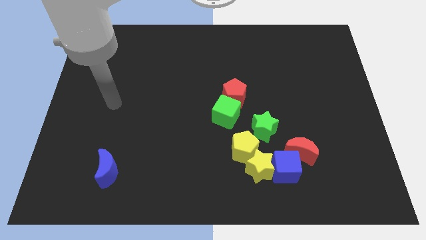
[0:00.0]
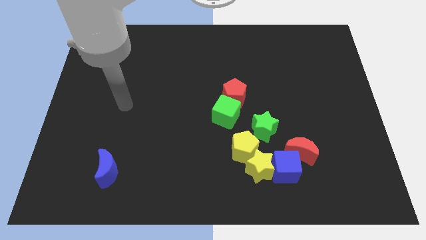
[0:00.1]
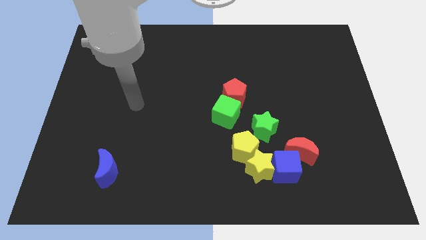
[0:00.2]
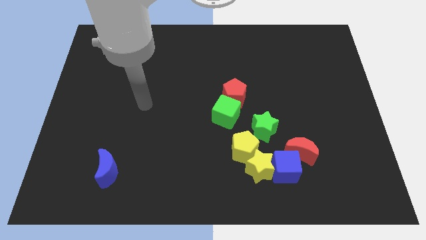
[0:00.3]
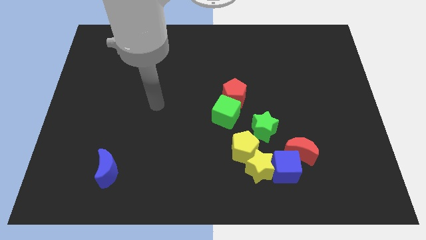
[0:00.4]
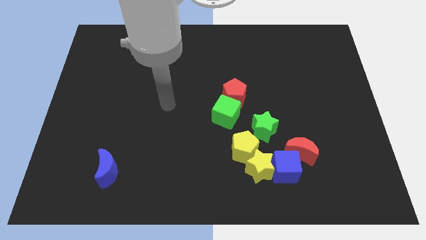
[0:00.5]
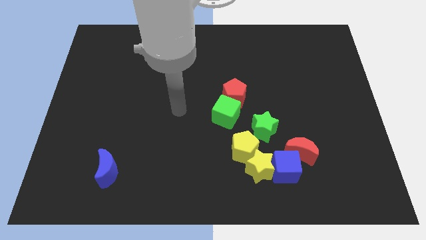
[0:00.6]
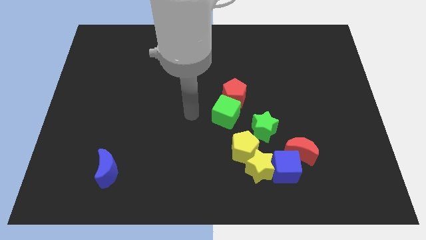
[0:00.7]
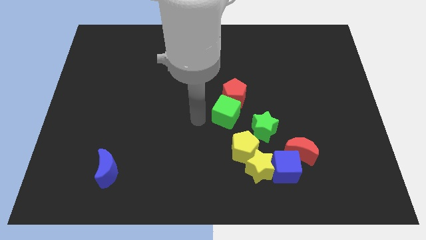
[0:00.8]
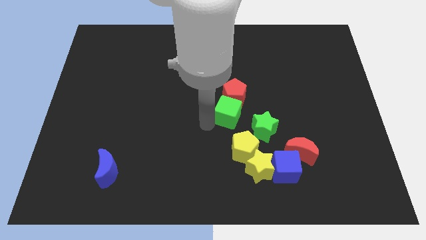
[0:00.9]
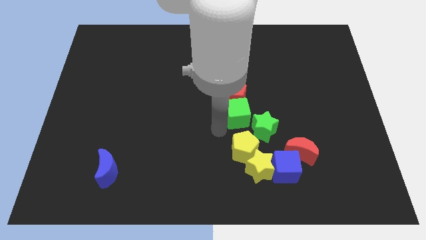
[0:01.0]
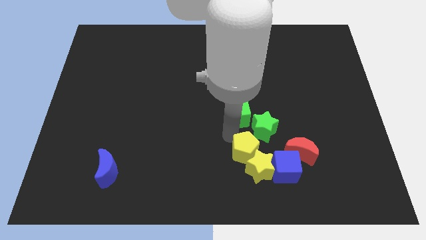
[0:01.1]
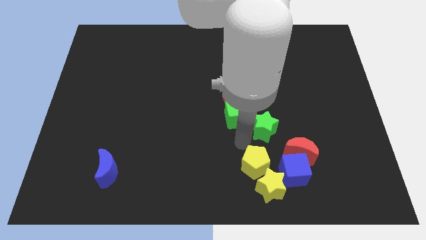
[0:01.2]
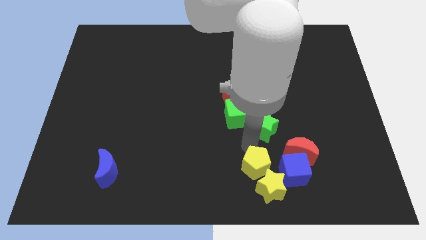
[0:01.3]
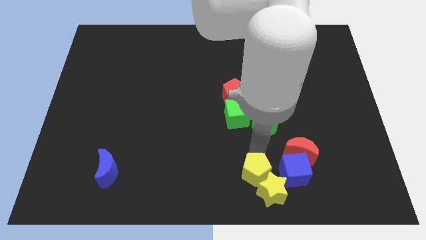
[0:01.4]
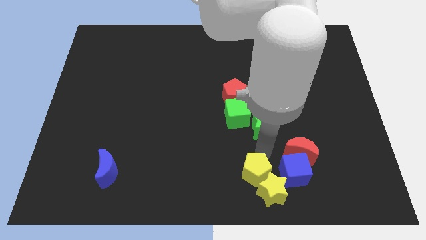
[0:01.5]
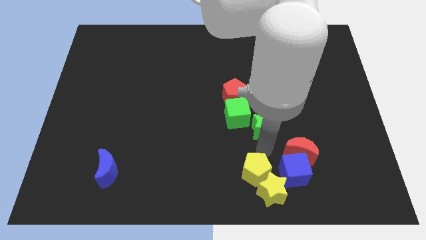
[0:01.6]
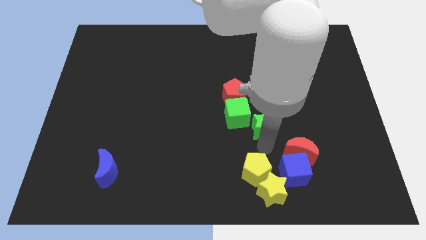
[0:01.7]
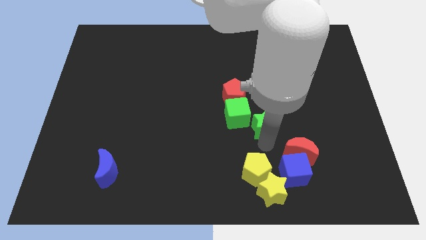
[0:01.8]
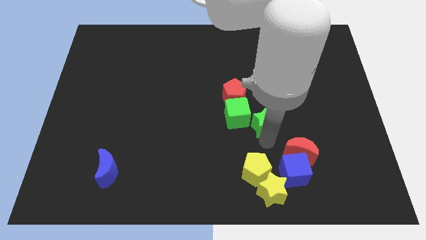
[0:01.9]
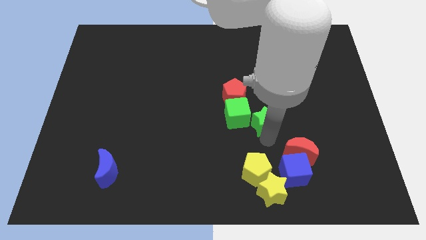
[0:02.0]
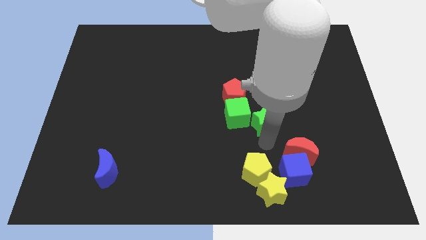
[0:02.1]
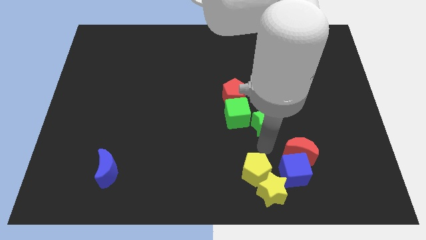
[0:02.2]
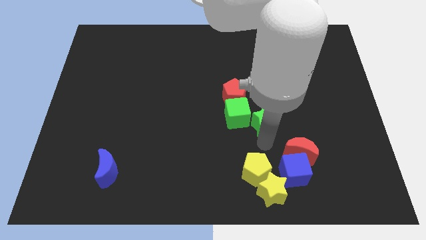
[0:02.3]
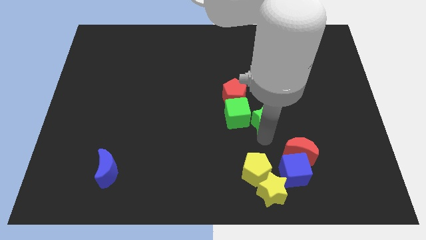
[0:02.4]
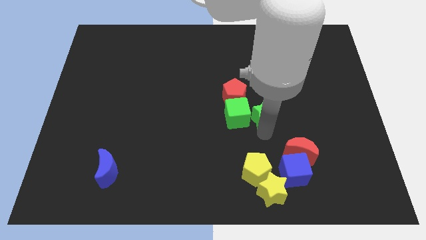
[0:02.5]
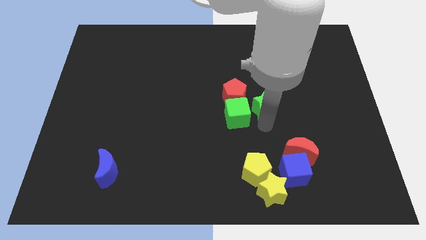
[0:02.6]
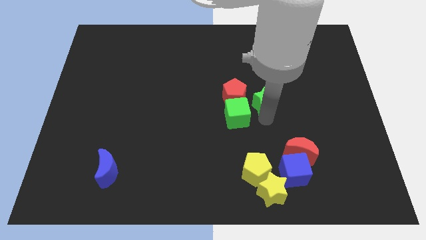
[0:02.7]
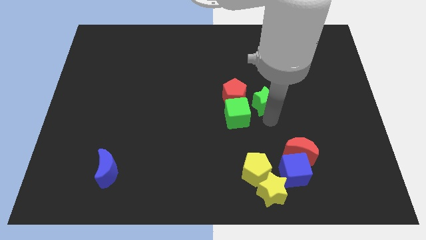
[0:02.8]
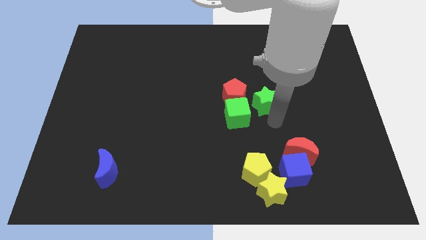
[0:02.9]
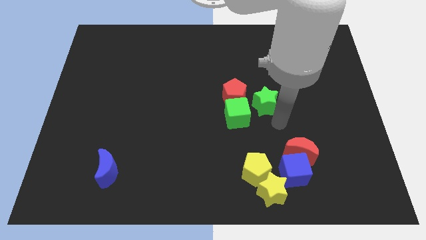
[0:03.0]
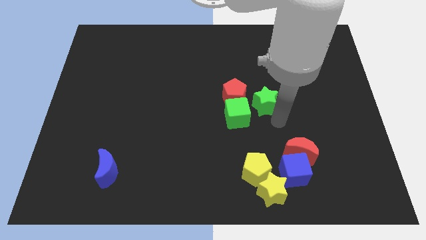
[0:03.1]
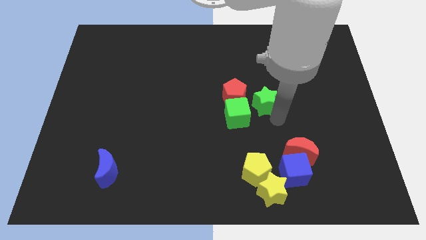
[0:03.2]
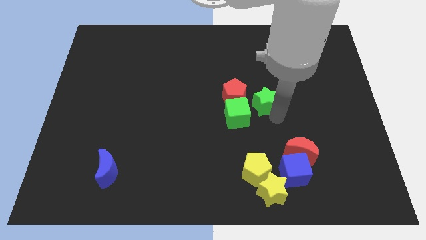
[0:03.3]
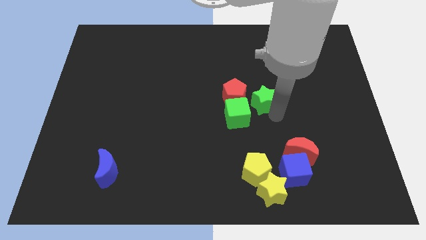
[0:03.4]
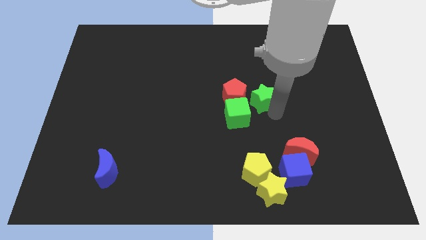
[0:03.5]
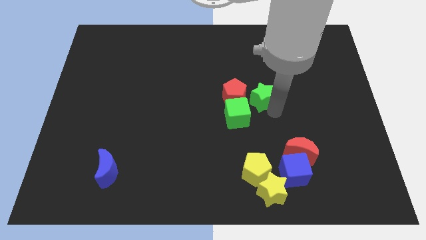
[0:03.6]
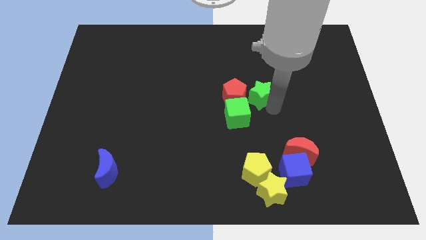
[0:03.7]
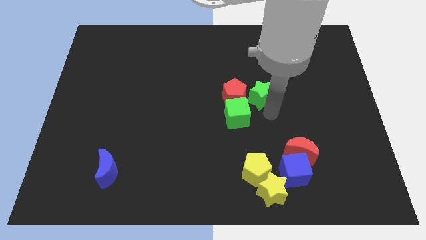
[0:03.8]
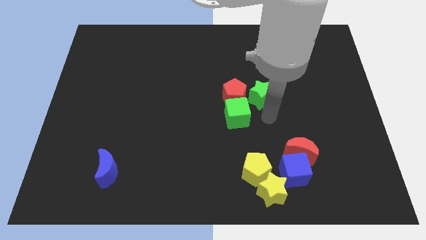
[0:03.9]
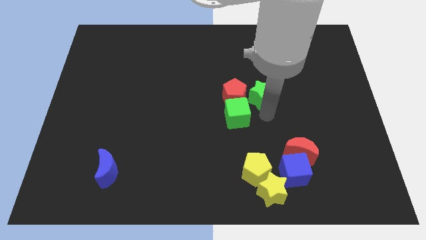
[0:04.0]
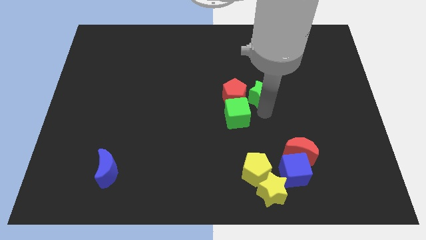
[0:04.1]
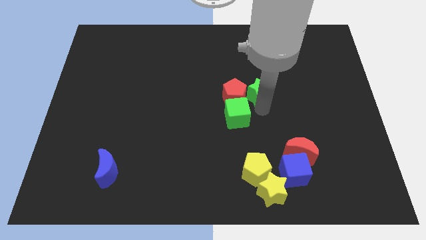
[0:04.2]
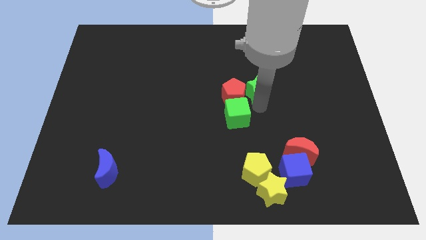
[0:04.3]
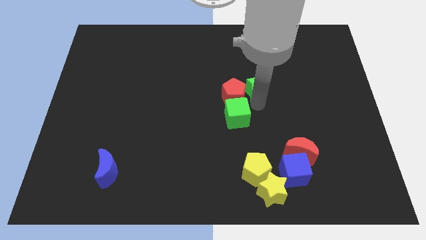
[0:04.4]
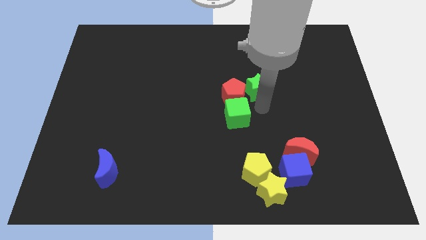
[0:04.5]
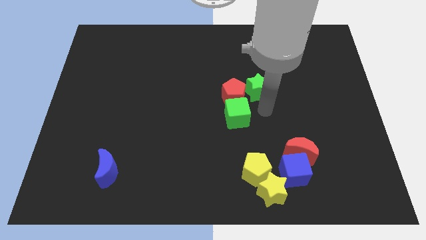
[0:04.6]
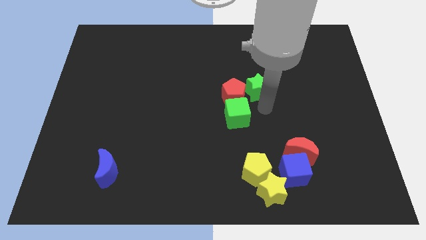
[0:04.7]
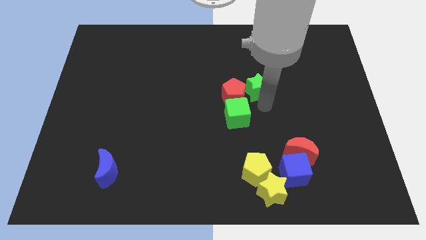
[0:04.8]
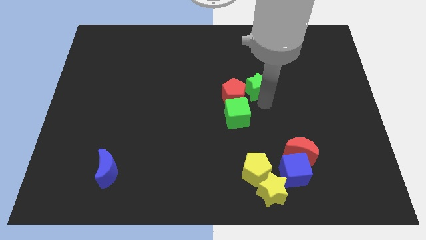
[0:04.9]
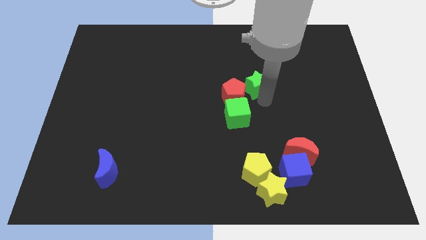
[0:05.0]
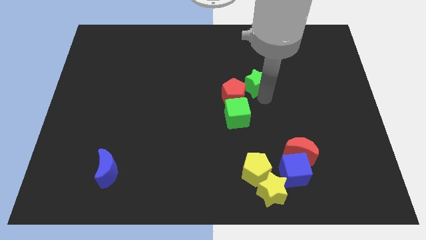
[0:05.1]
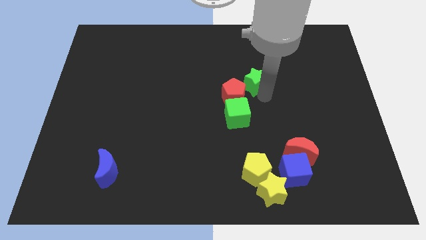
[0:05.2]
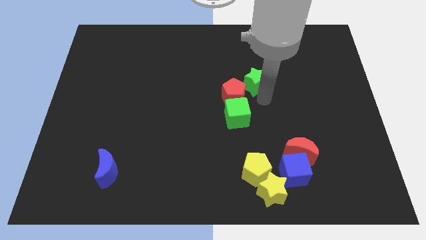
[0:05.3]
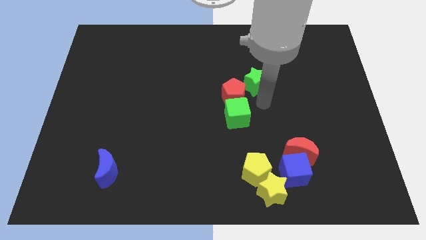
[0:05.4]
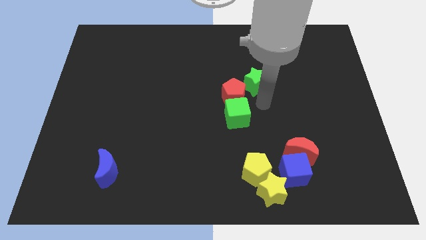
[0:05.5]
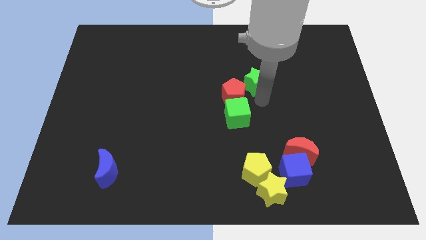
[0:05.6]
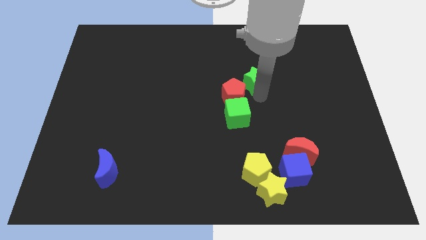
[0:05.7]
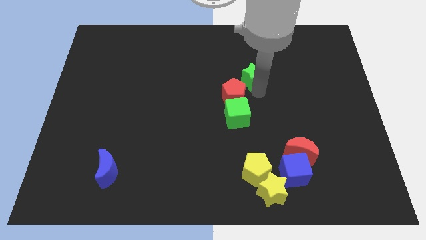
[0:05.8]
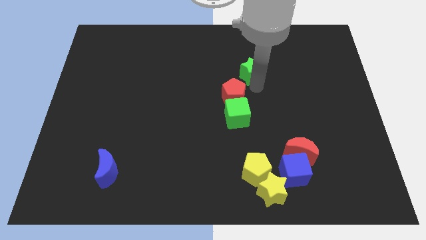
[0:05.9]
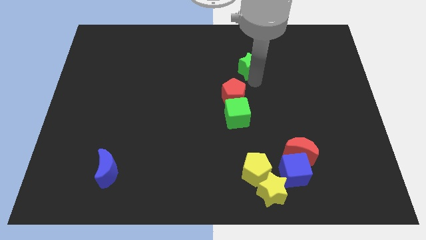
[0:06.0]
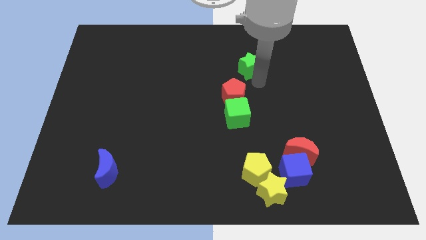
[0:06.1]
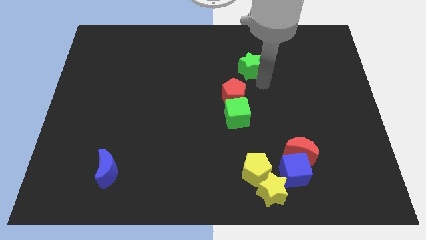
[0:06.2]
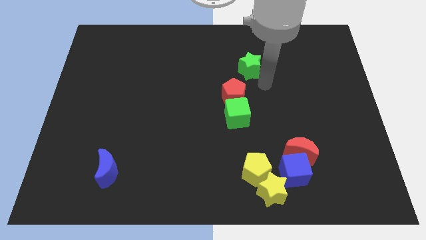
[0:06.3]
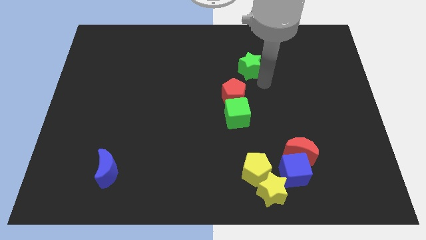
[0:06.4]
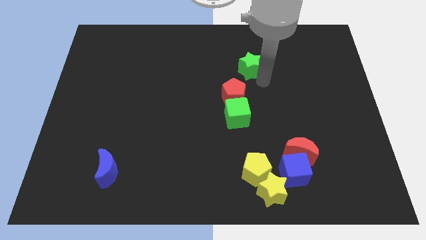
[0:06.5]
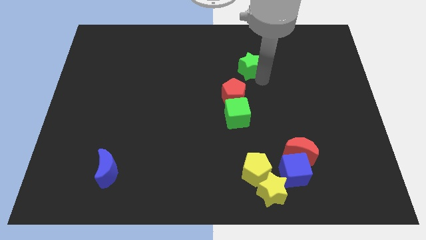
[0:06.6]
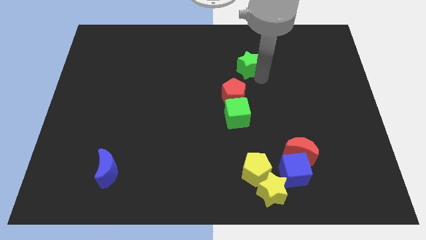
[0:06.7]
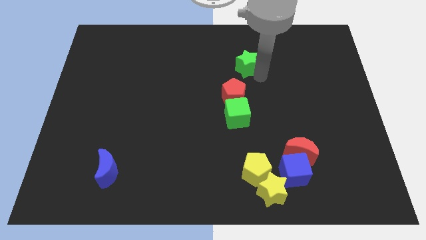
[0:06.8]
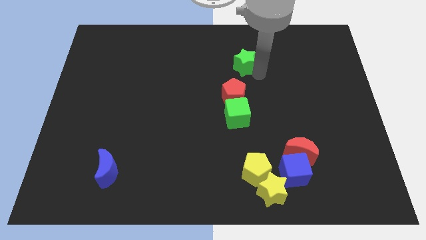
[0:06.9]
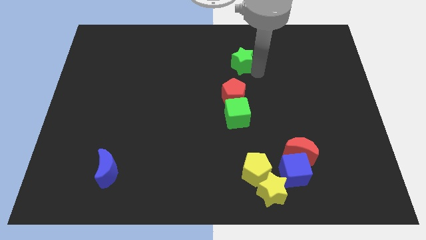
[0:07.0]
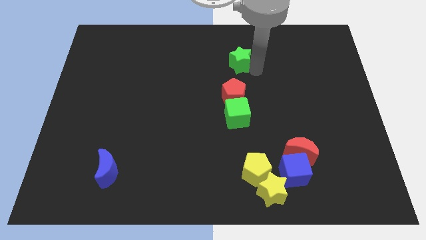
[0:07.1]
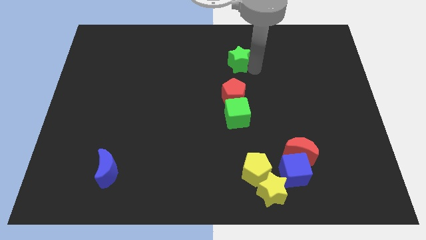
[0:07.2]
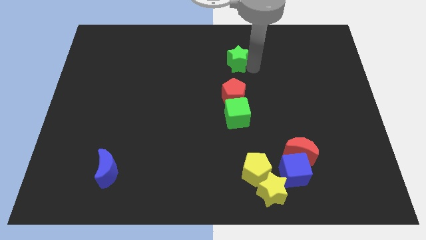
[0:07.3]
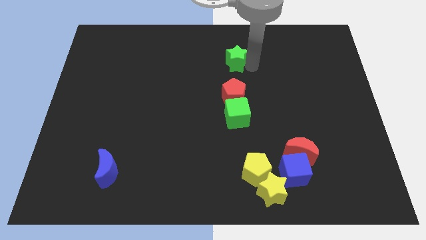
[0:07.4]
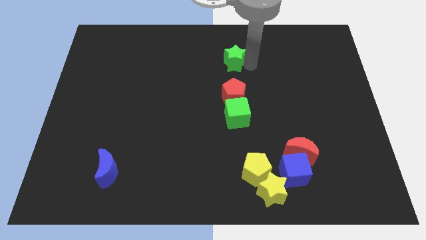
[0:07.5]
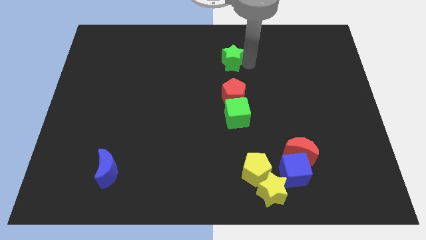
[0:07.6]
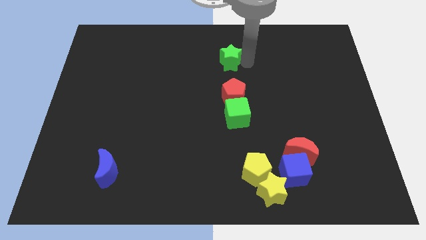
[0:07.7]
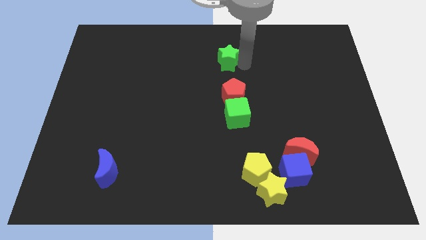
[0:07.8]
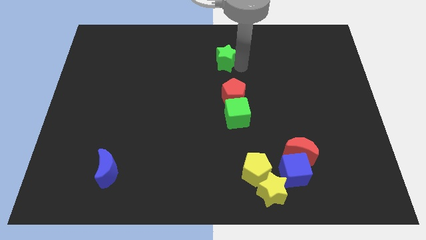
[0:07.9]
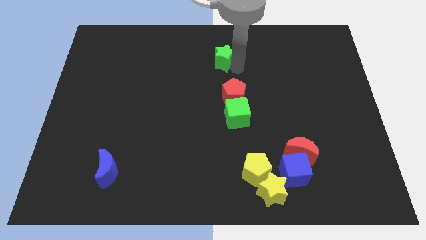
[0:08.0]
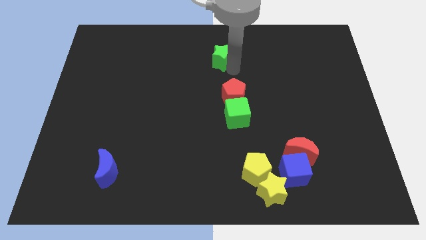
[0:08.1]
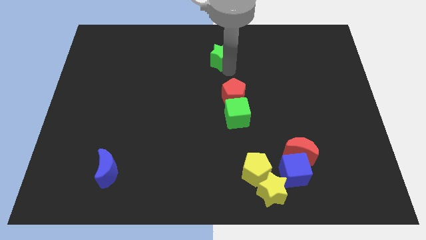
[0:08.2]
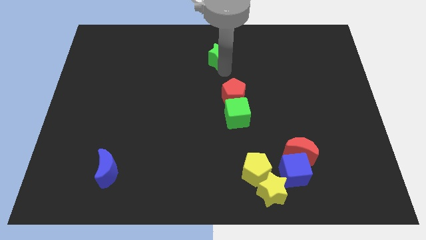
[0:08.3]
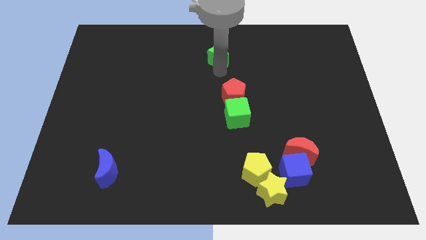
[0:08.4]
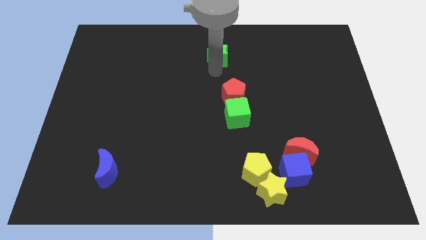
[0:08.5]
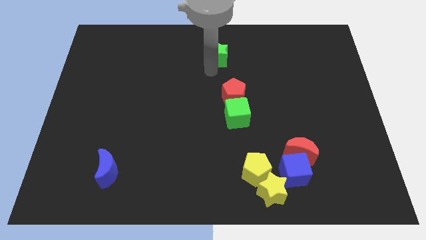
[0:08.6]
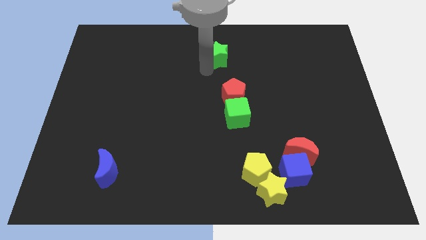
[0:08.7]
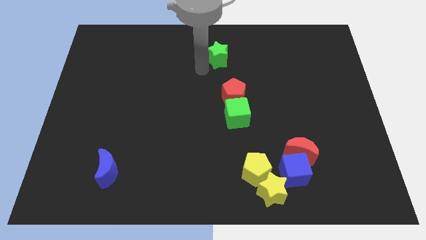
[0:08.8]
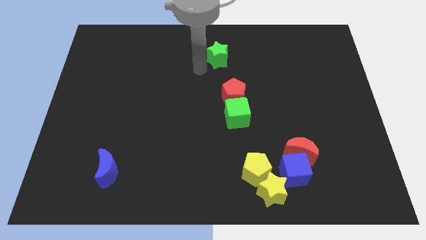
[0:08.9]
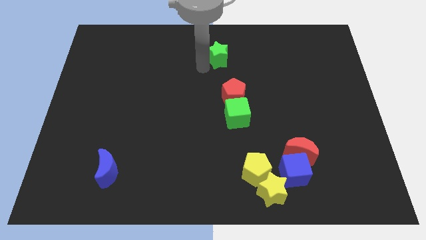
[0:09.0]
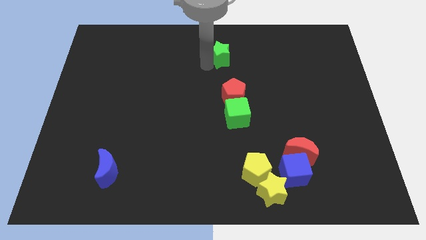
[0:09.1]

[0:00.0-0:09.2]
push the green star to the top
